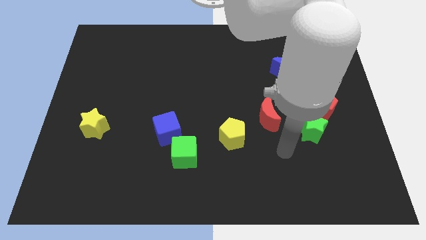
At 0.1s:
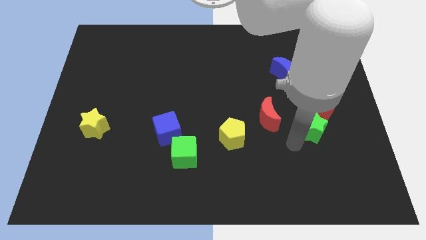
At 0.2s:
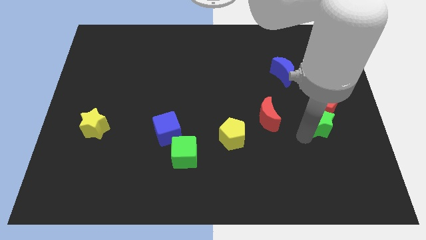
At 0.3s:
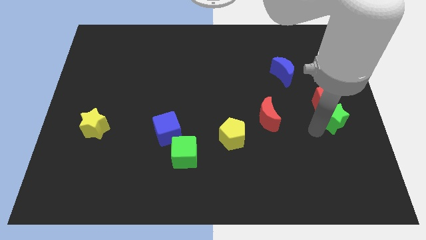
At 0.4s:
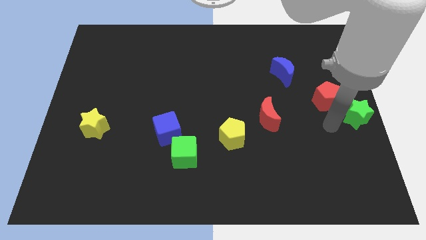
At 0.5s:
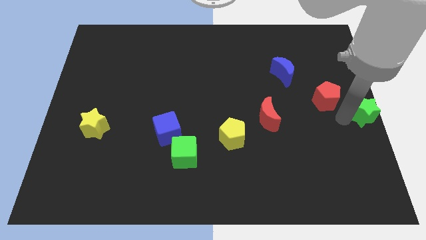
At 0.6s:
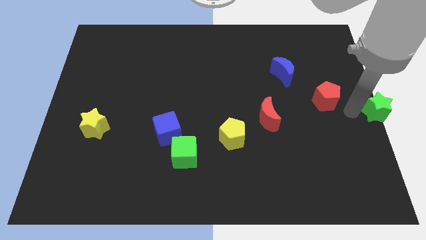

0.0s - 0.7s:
pull the red pentagon apart from the green star

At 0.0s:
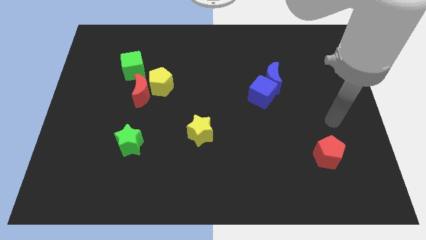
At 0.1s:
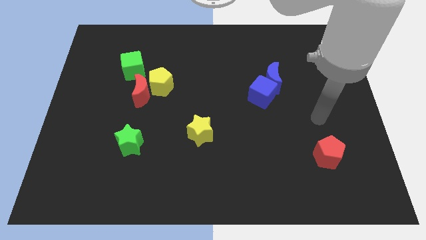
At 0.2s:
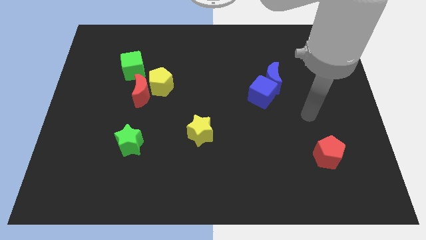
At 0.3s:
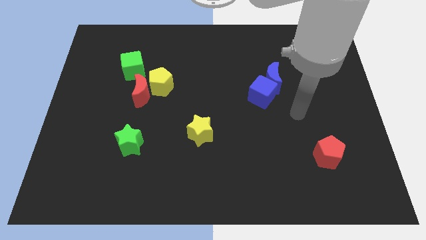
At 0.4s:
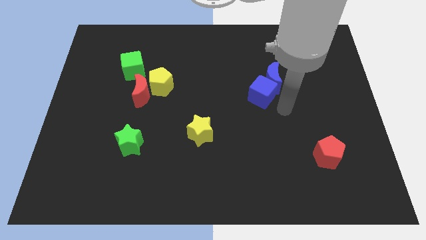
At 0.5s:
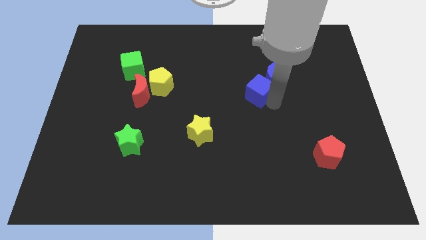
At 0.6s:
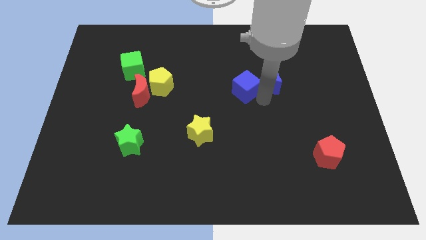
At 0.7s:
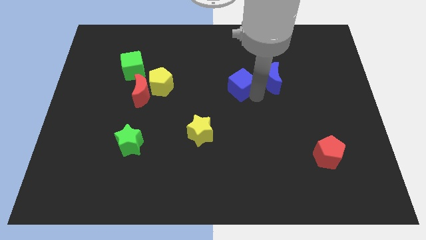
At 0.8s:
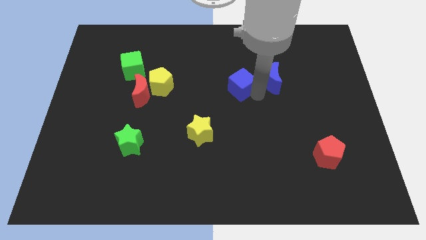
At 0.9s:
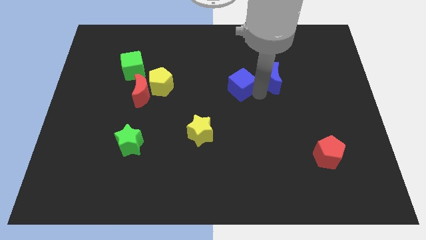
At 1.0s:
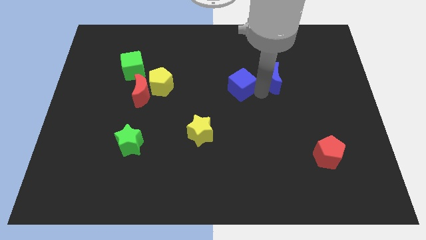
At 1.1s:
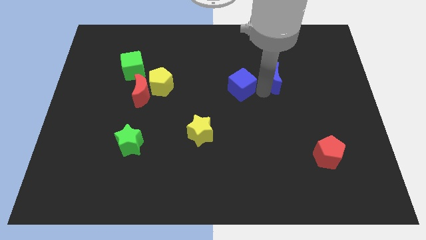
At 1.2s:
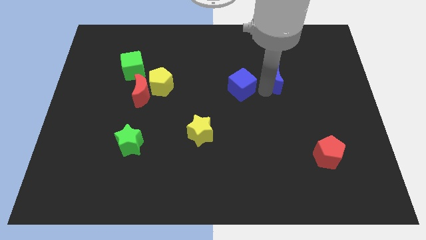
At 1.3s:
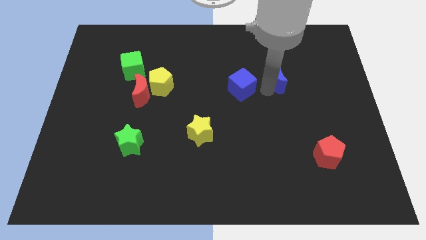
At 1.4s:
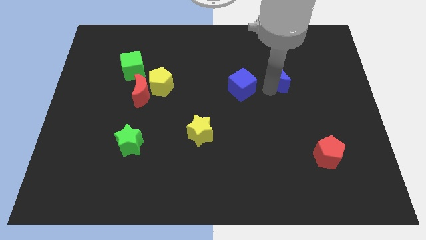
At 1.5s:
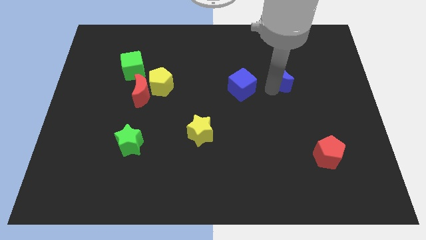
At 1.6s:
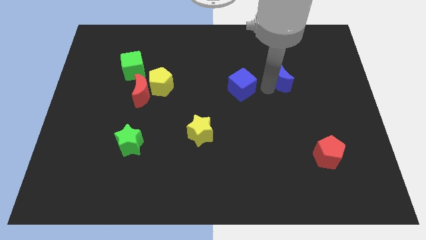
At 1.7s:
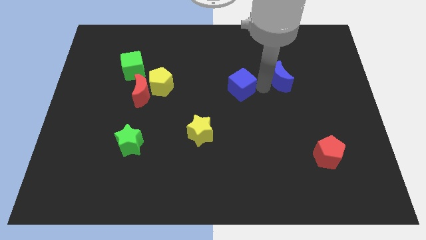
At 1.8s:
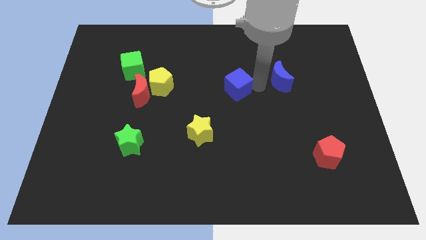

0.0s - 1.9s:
move the blue moon away from the blue cube

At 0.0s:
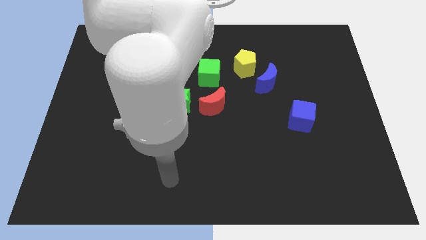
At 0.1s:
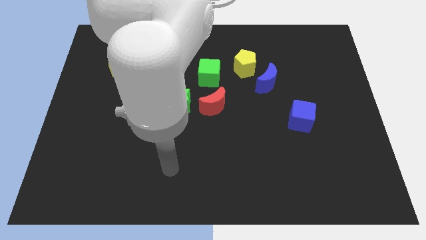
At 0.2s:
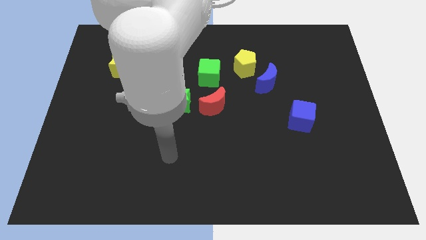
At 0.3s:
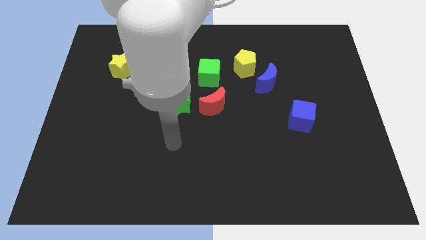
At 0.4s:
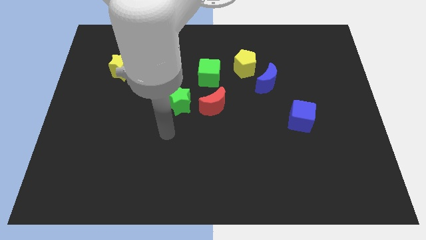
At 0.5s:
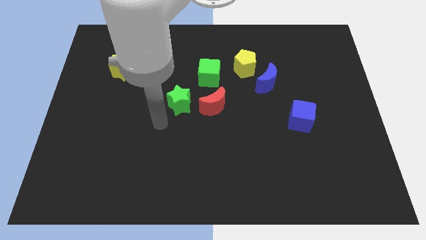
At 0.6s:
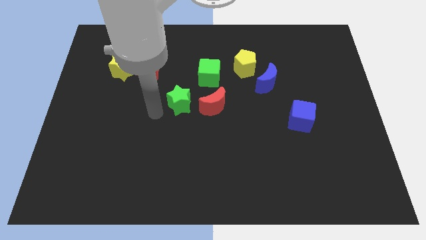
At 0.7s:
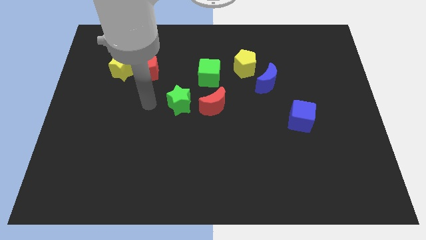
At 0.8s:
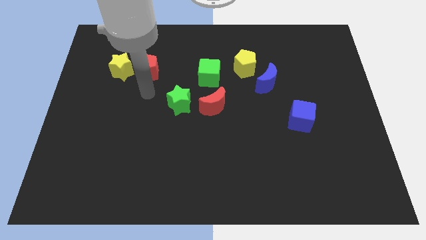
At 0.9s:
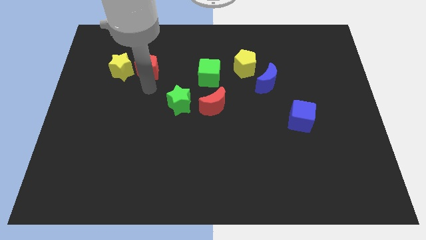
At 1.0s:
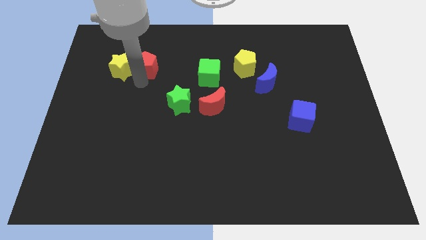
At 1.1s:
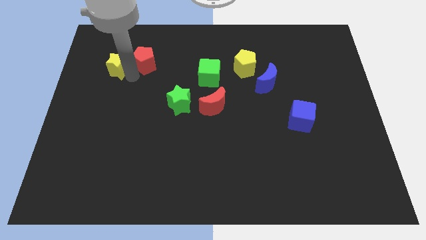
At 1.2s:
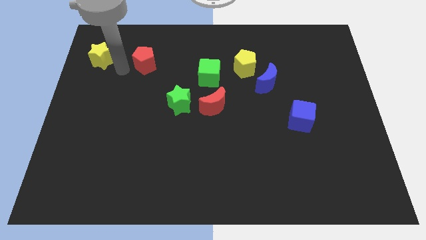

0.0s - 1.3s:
separate the red pentagon from the yellow star

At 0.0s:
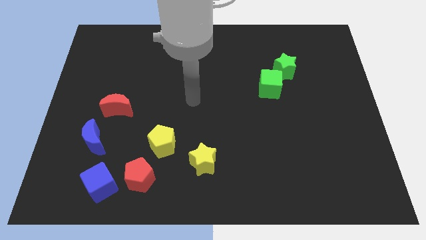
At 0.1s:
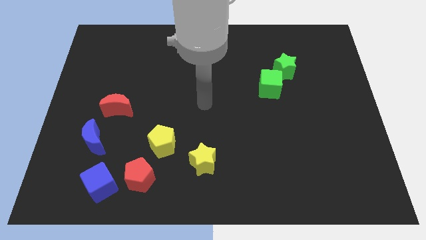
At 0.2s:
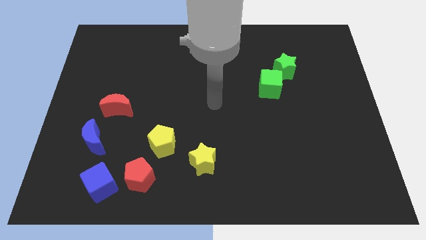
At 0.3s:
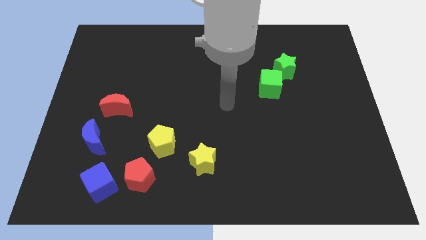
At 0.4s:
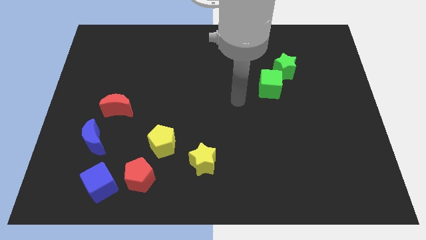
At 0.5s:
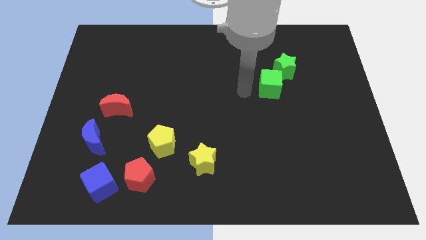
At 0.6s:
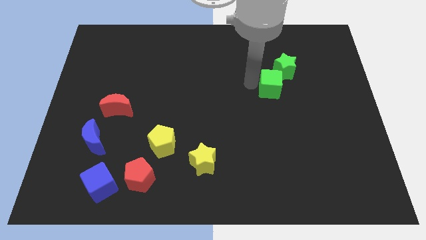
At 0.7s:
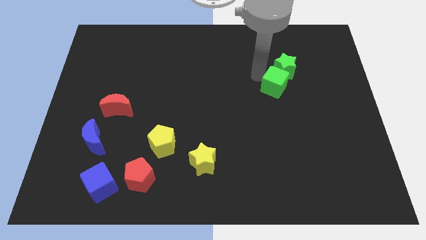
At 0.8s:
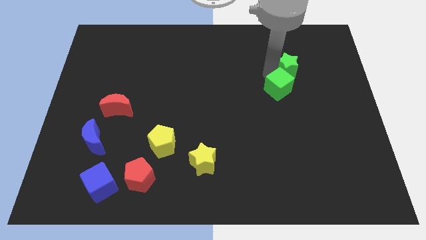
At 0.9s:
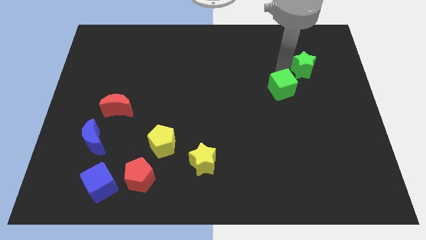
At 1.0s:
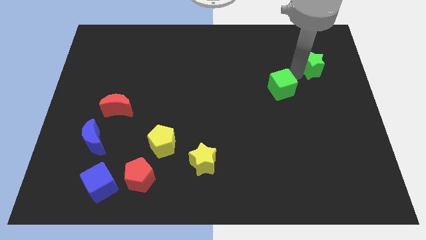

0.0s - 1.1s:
move the green cube away from the green star

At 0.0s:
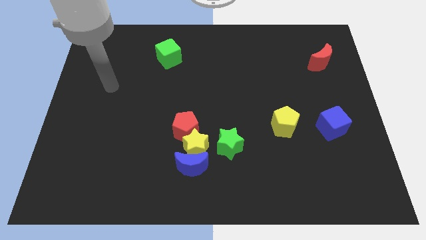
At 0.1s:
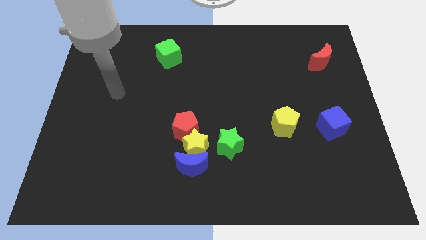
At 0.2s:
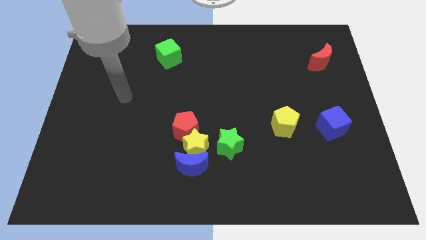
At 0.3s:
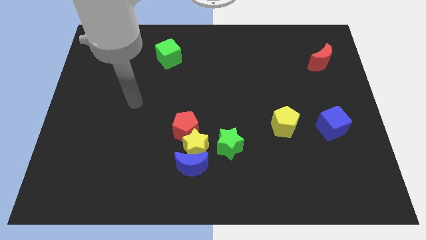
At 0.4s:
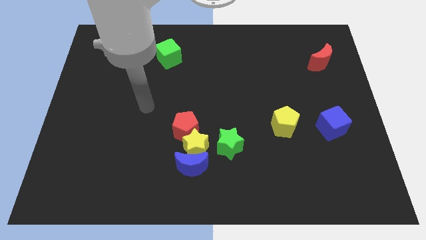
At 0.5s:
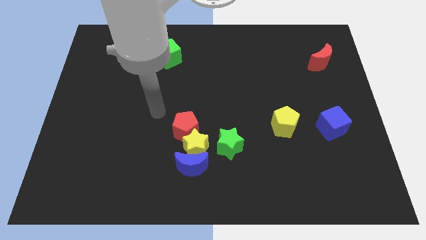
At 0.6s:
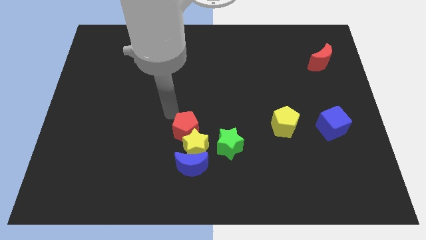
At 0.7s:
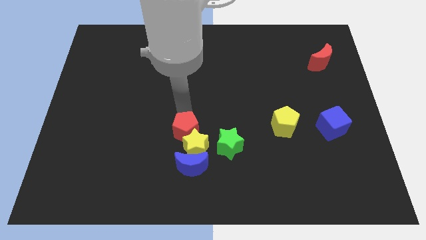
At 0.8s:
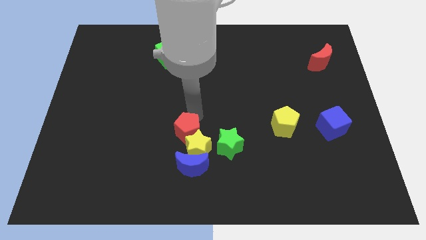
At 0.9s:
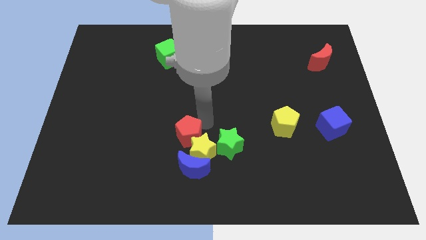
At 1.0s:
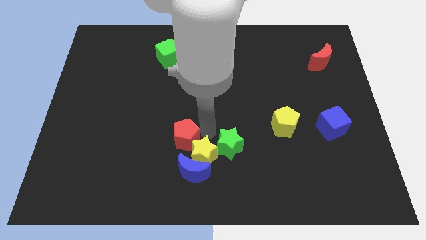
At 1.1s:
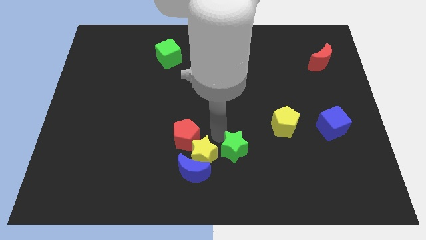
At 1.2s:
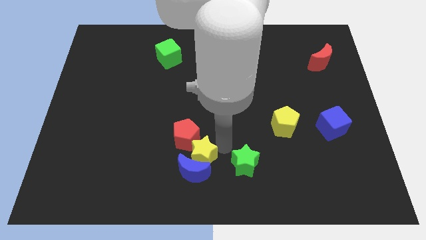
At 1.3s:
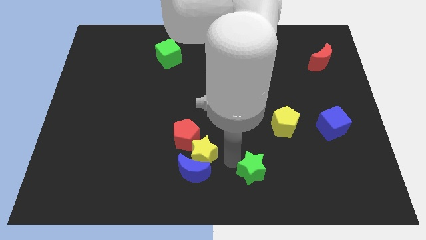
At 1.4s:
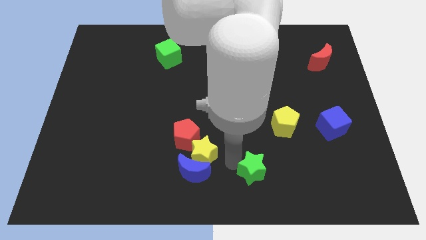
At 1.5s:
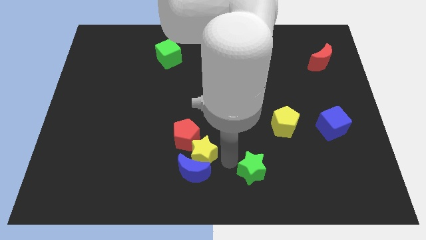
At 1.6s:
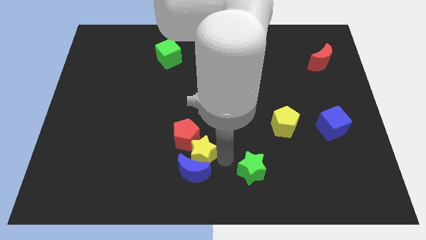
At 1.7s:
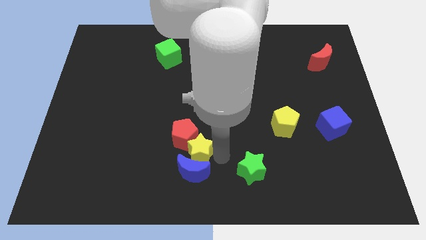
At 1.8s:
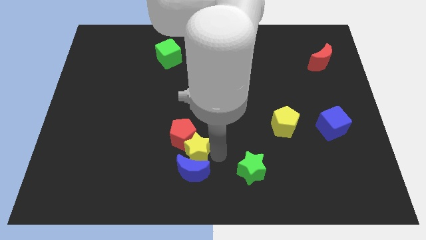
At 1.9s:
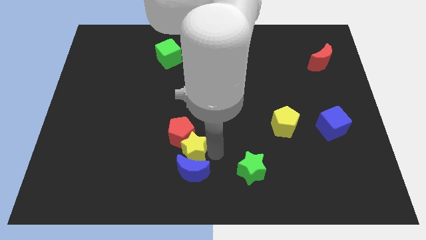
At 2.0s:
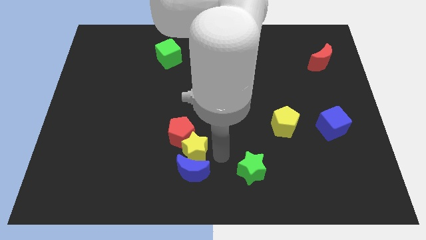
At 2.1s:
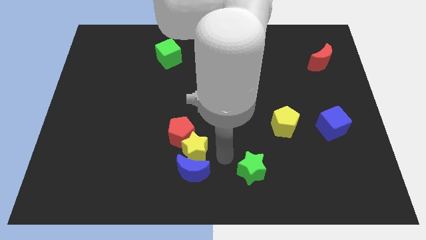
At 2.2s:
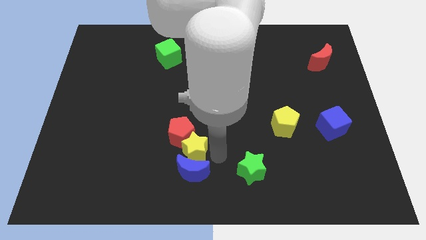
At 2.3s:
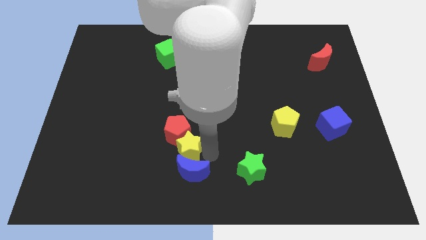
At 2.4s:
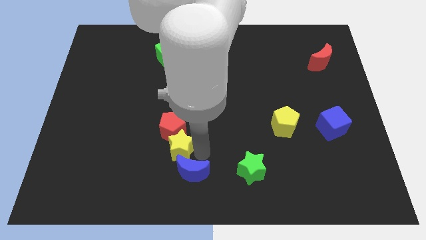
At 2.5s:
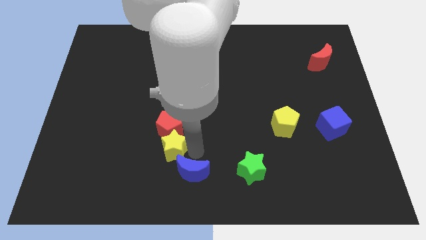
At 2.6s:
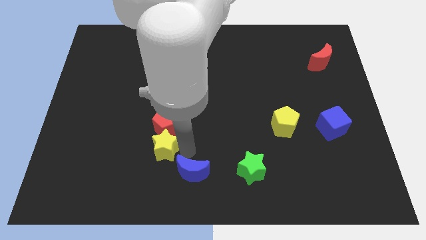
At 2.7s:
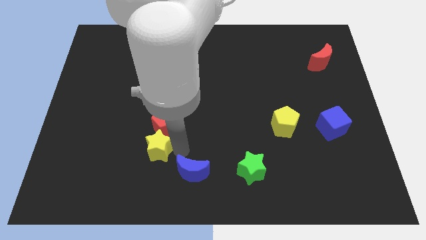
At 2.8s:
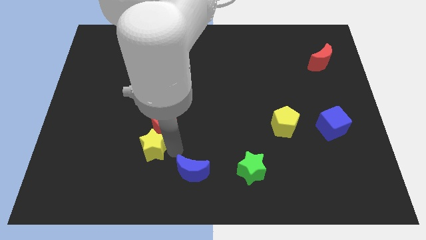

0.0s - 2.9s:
pull the yellow star apart from the group

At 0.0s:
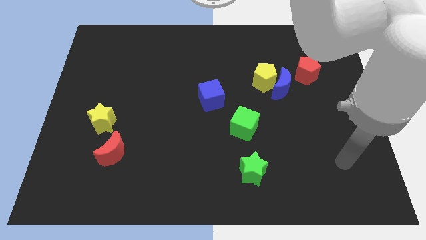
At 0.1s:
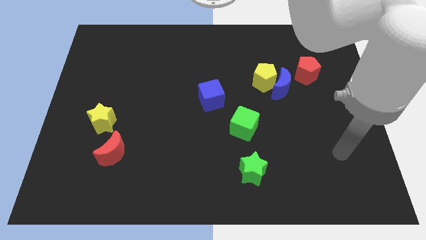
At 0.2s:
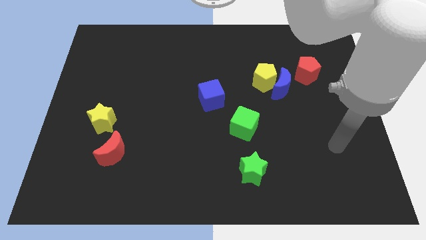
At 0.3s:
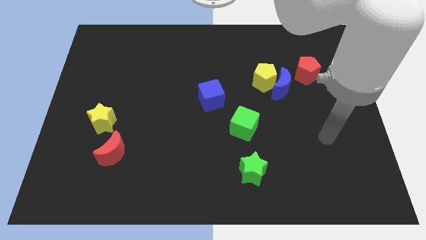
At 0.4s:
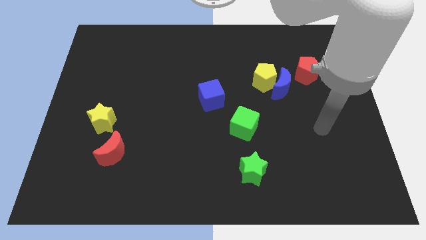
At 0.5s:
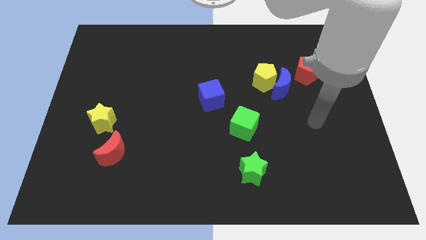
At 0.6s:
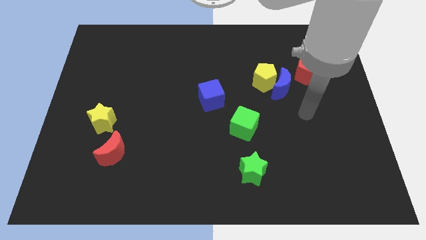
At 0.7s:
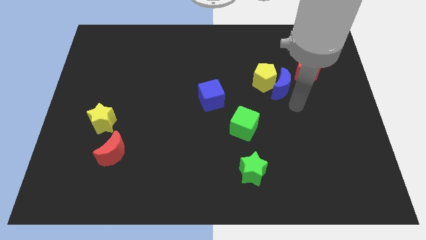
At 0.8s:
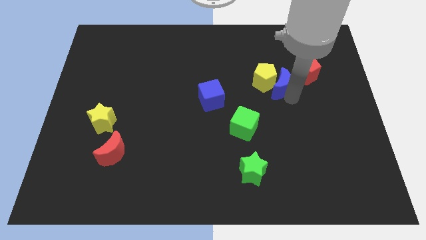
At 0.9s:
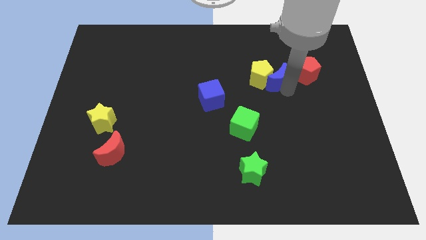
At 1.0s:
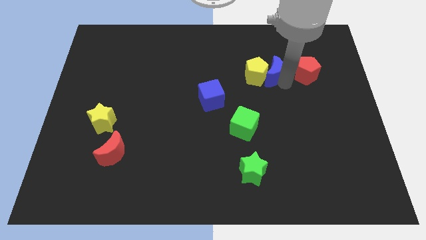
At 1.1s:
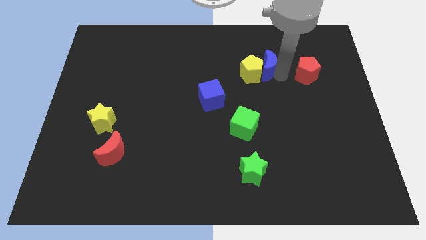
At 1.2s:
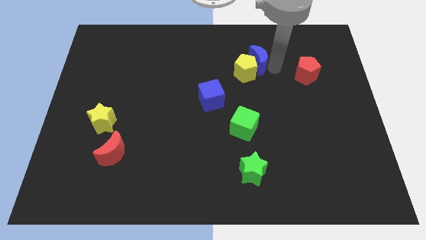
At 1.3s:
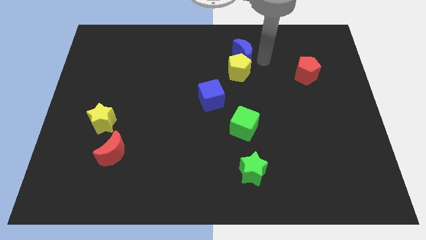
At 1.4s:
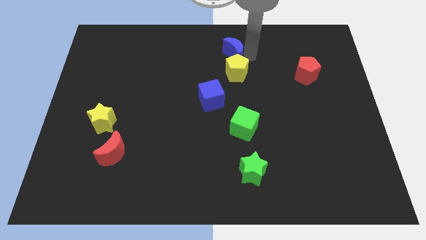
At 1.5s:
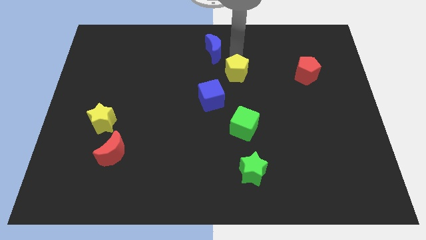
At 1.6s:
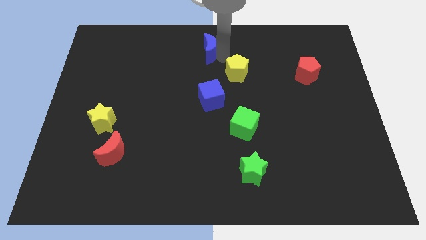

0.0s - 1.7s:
separate the yellow pentagon from the blue moon
